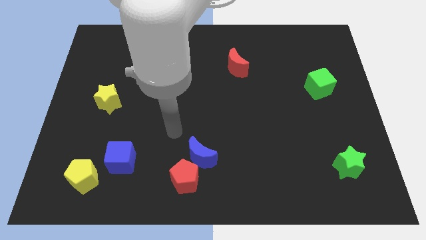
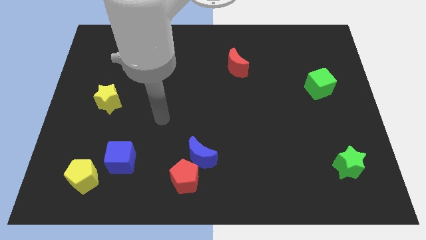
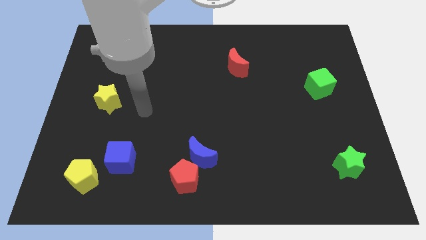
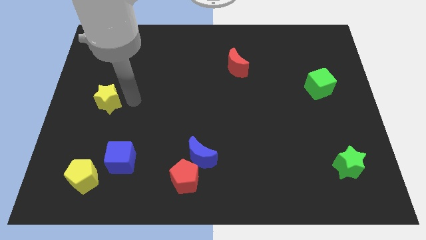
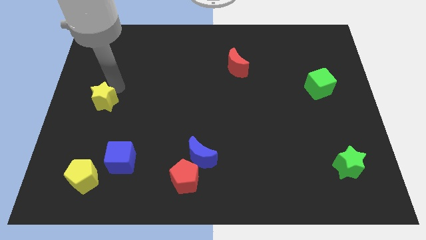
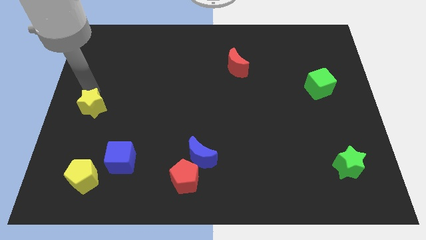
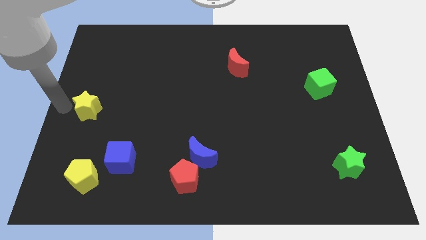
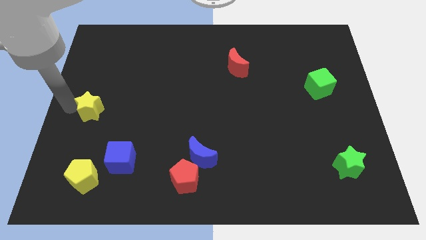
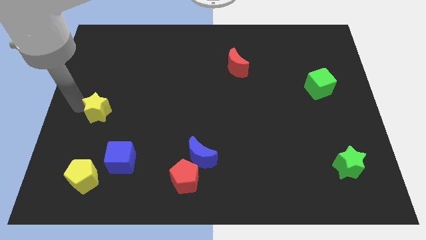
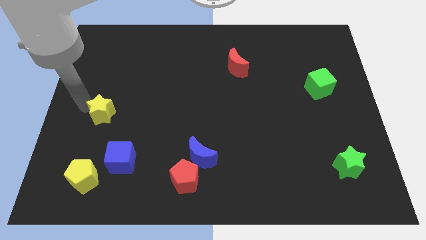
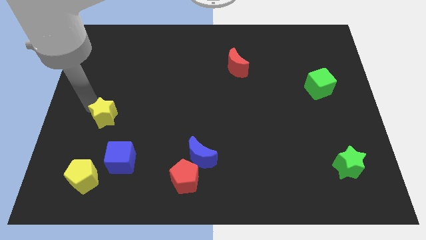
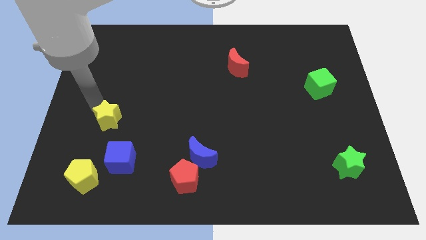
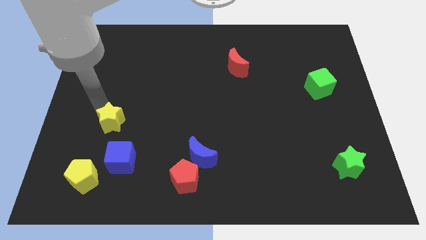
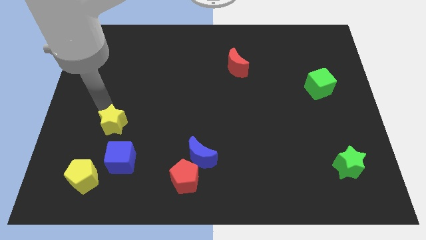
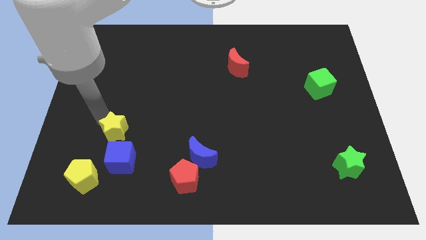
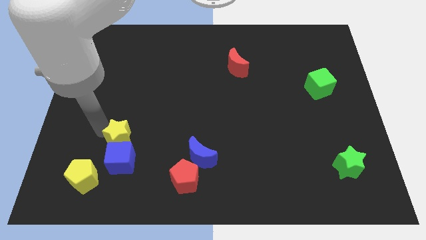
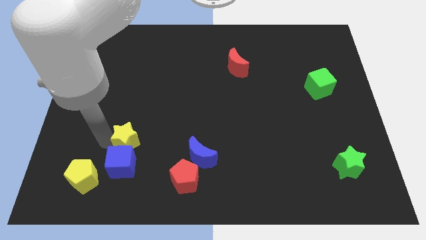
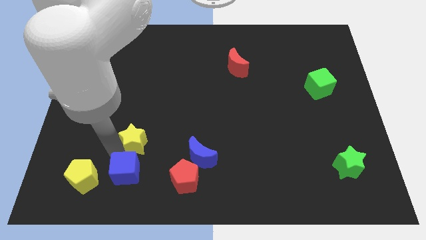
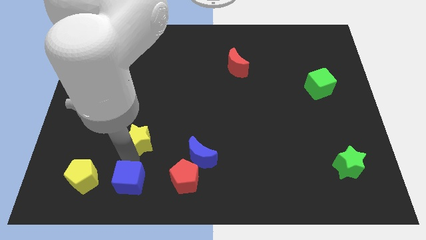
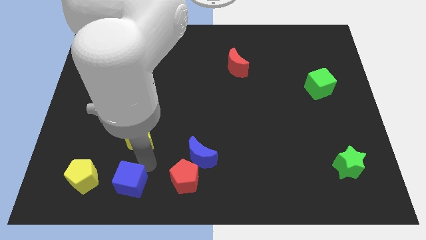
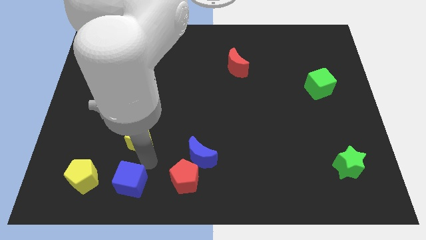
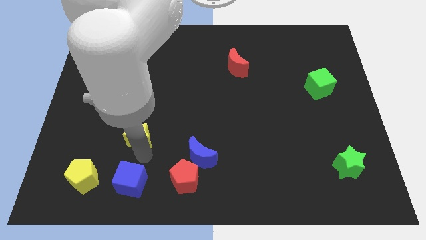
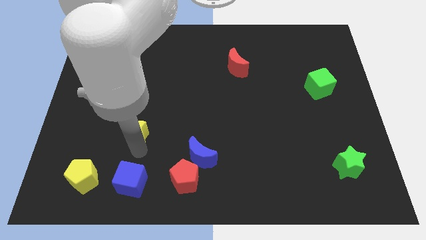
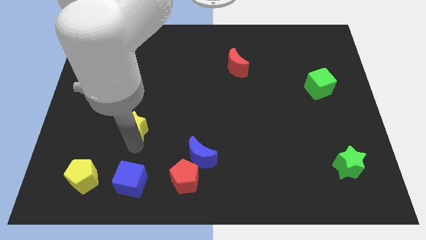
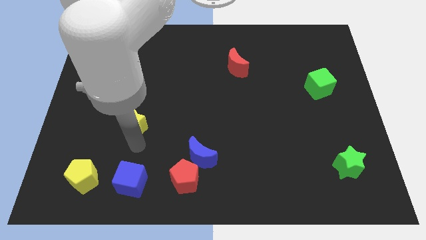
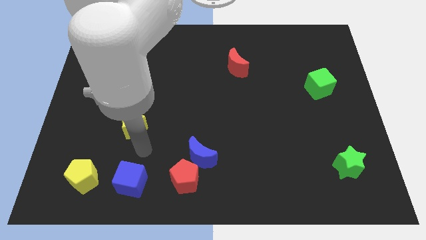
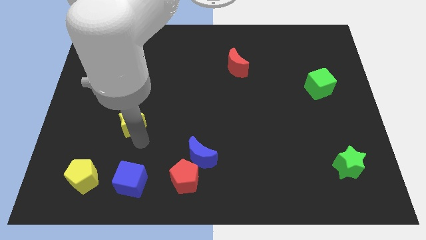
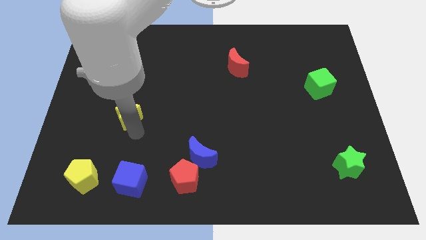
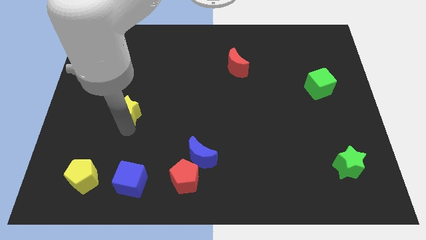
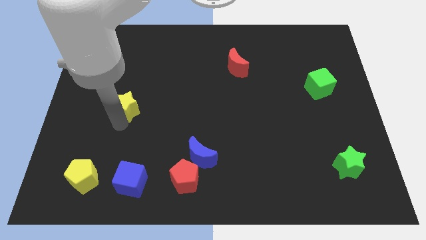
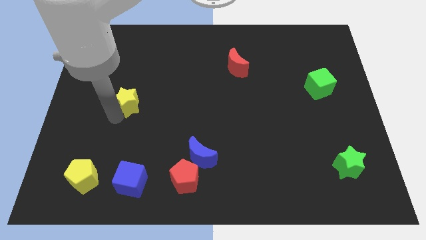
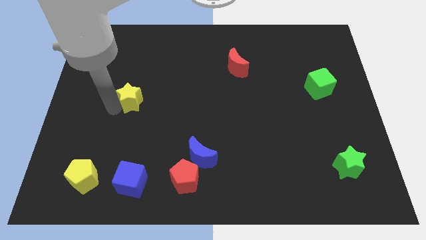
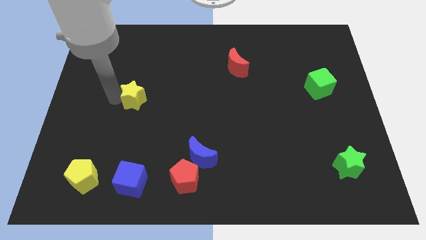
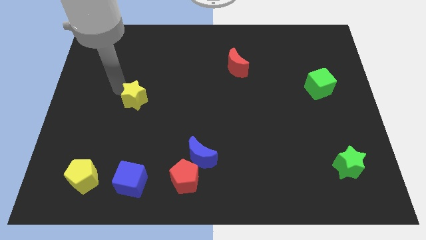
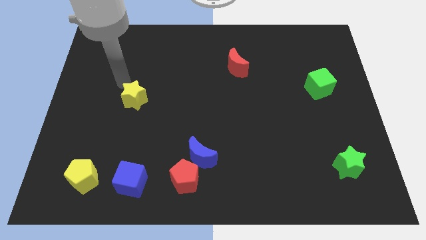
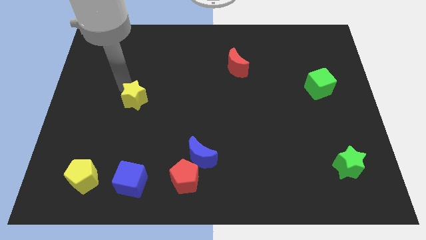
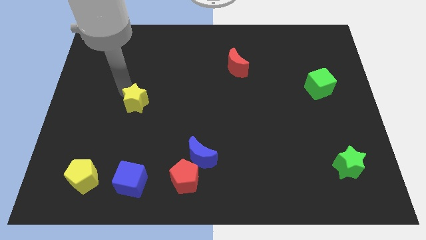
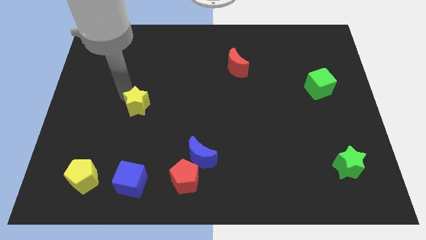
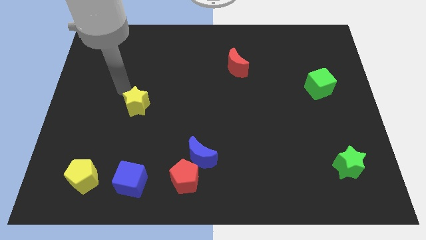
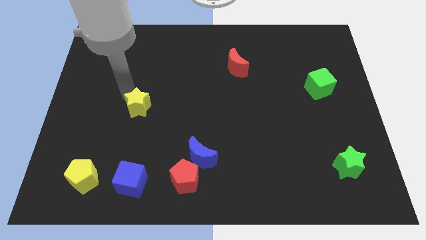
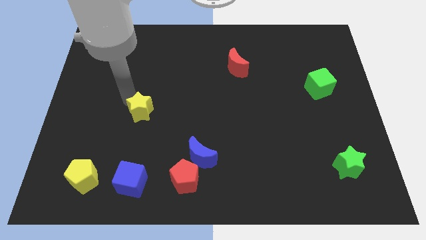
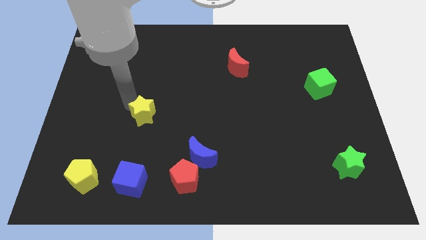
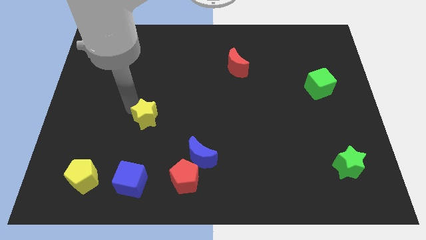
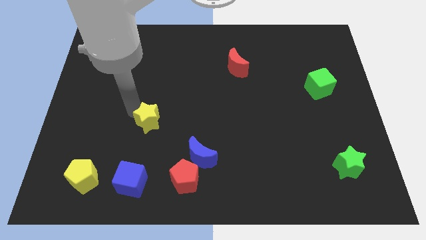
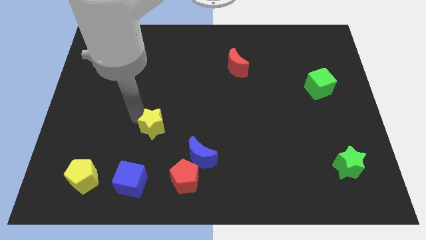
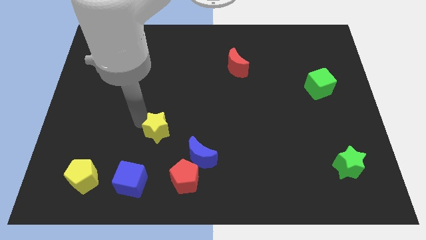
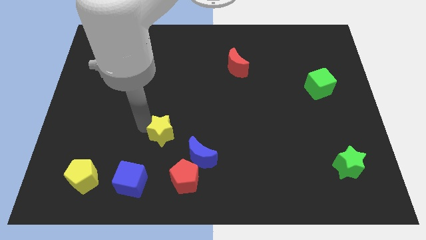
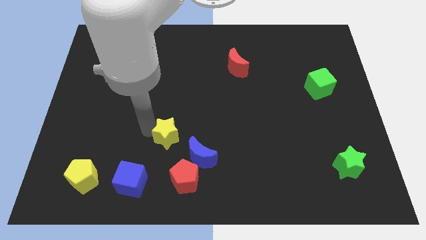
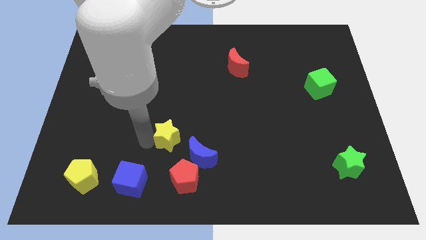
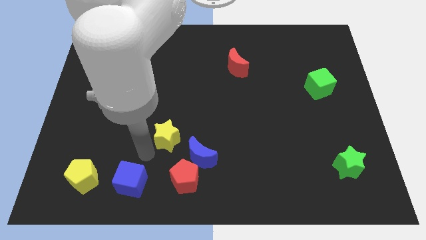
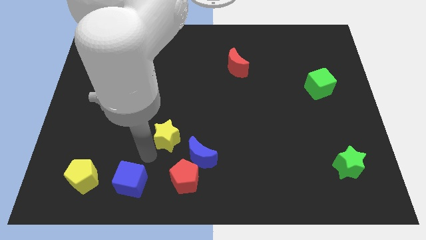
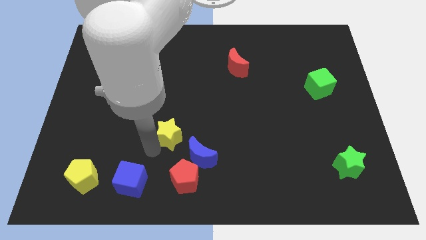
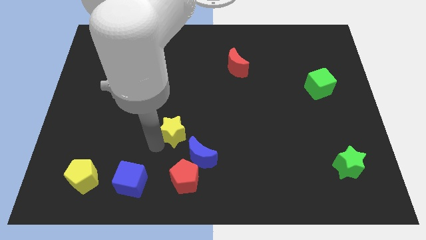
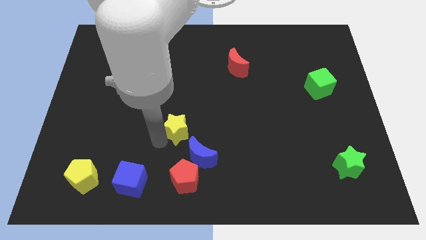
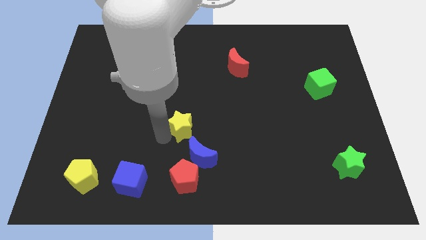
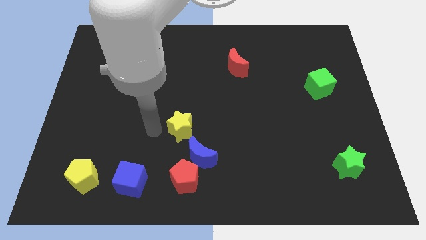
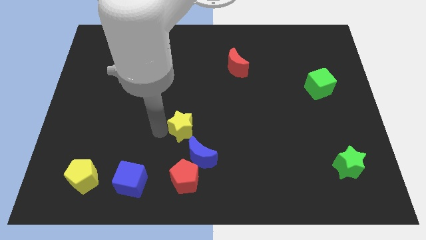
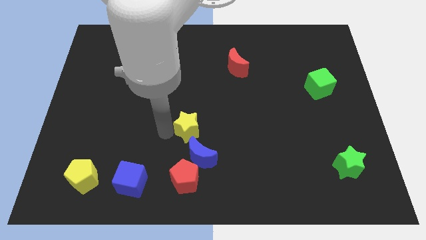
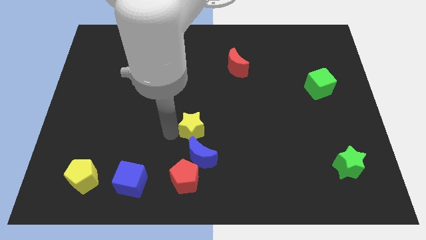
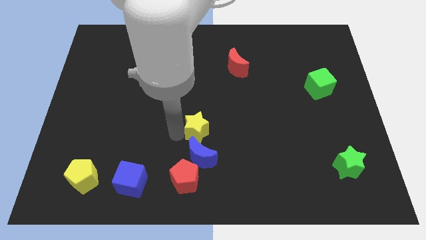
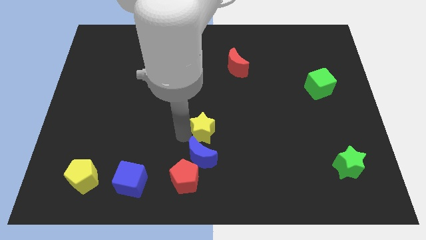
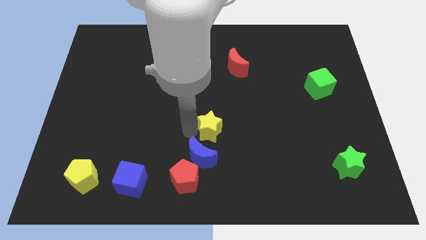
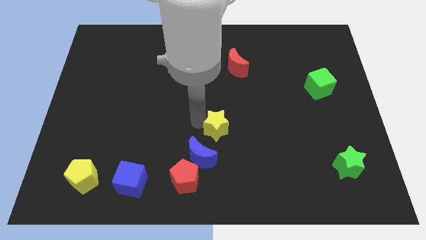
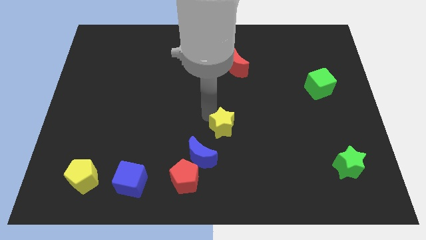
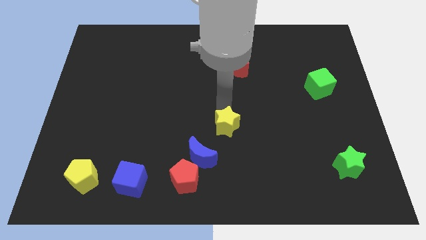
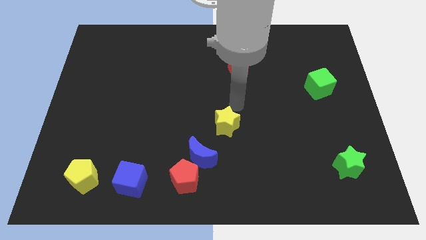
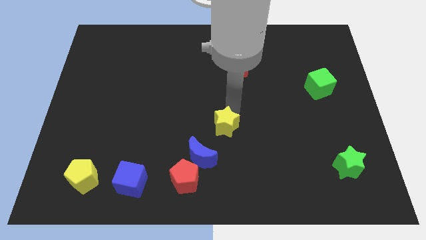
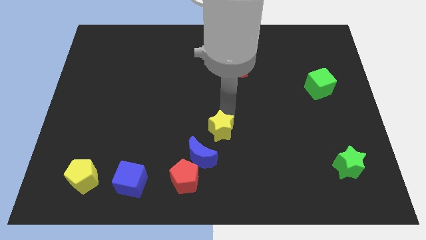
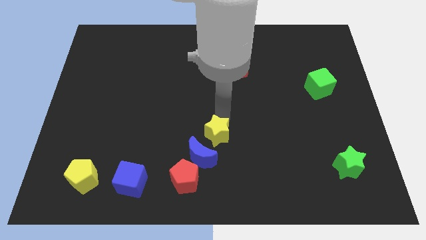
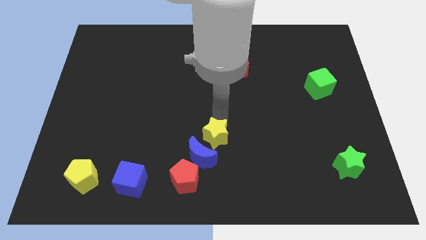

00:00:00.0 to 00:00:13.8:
push the yellow star to the top right of the red pentagon
